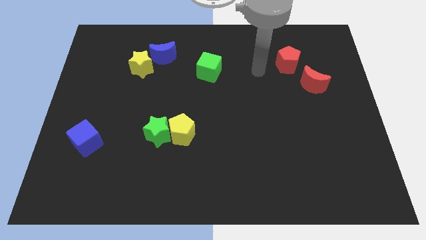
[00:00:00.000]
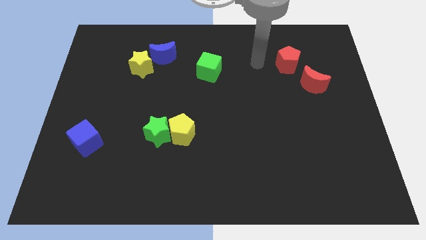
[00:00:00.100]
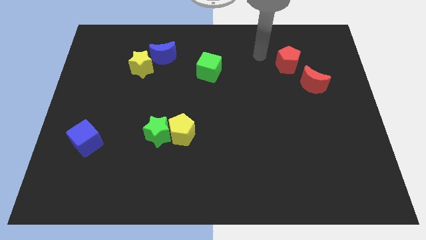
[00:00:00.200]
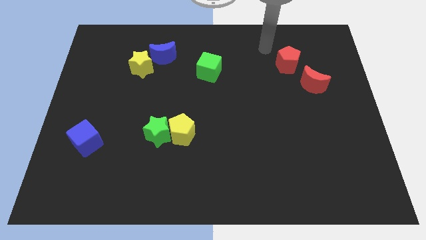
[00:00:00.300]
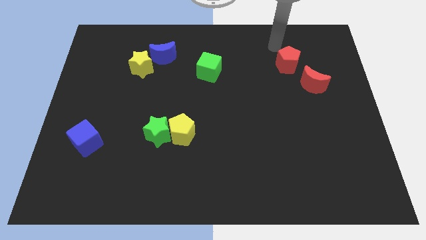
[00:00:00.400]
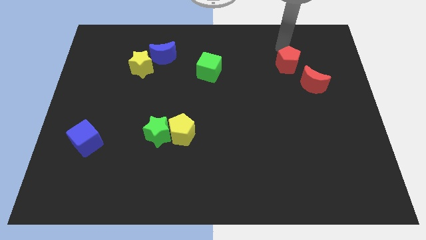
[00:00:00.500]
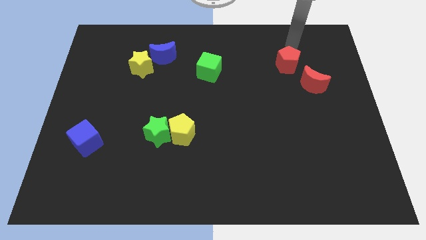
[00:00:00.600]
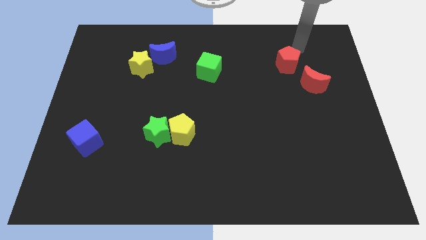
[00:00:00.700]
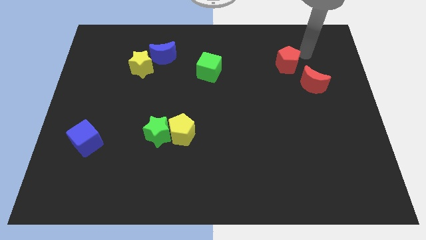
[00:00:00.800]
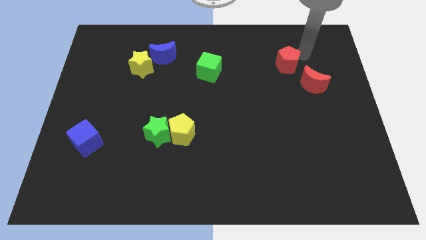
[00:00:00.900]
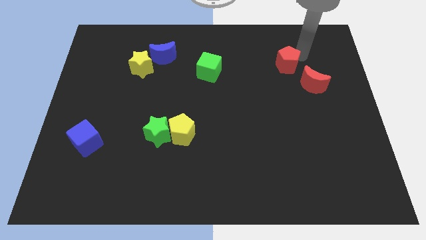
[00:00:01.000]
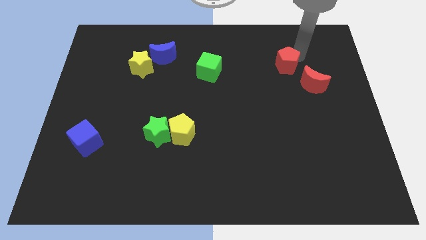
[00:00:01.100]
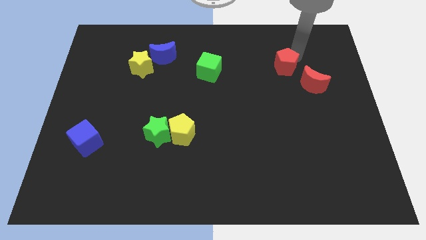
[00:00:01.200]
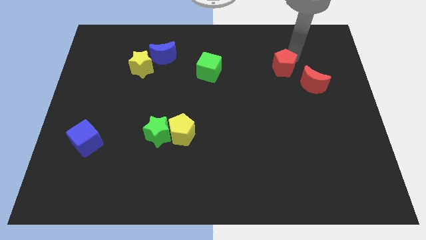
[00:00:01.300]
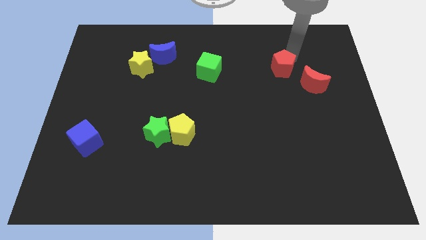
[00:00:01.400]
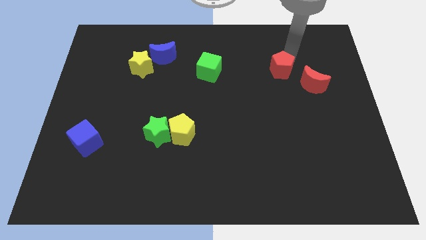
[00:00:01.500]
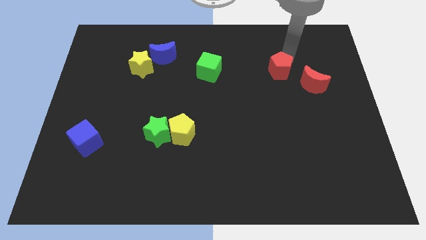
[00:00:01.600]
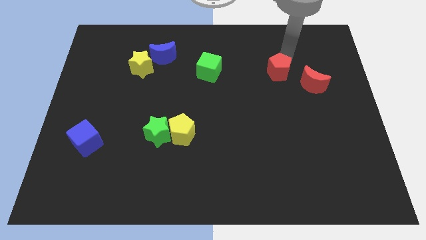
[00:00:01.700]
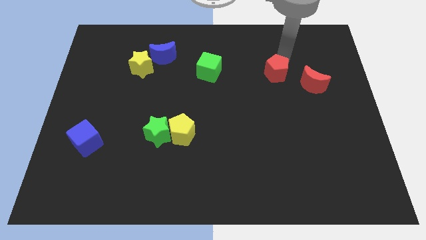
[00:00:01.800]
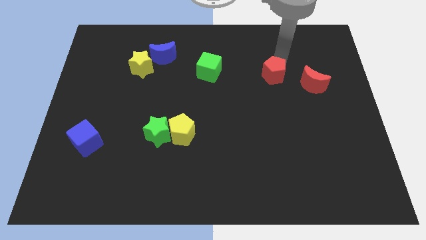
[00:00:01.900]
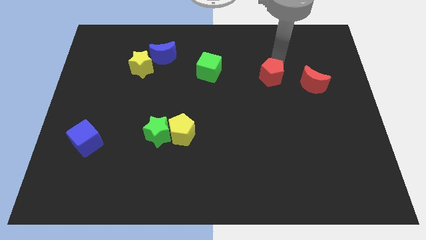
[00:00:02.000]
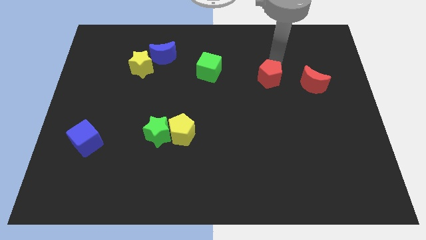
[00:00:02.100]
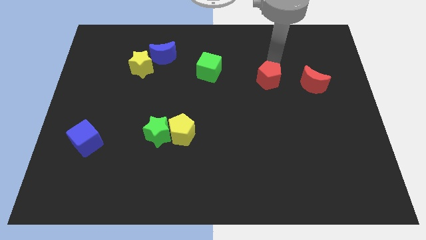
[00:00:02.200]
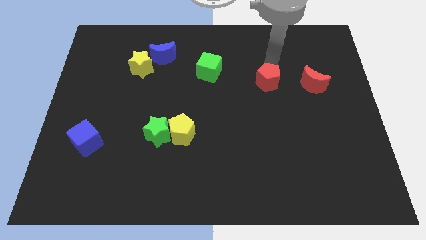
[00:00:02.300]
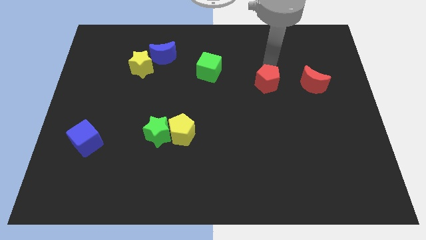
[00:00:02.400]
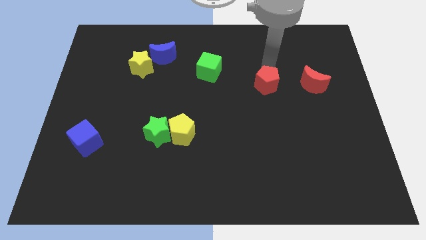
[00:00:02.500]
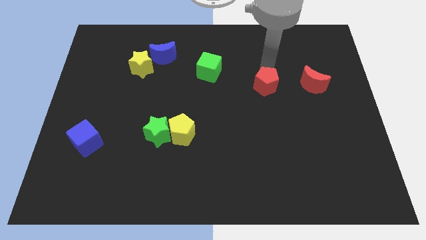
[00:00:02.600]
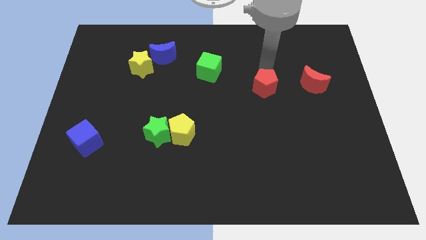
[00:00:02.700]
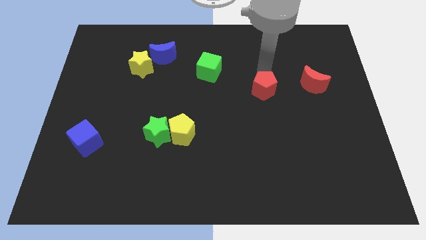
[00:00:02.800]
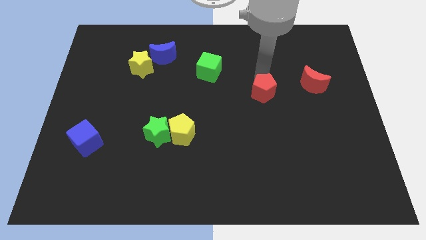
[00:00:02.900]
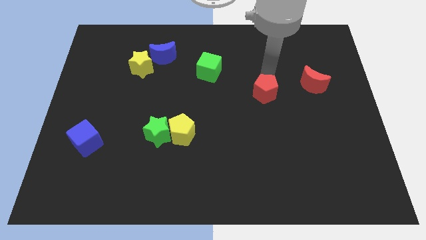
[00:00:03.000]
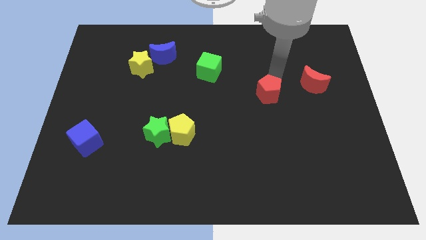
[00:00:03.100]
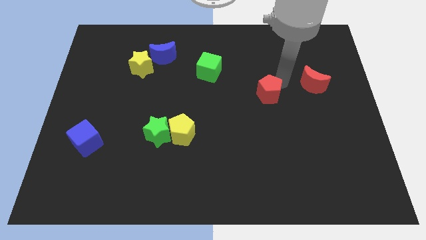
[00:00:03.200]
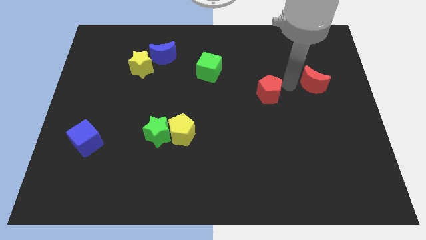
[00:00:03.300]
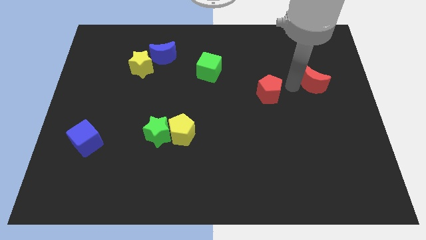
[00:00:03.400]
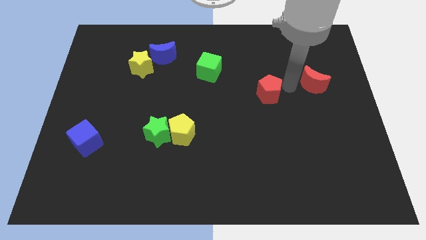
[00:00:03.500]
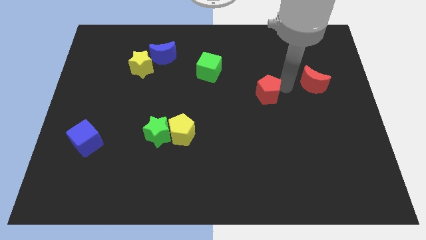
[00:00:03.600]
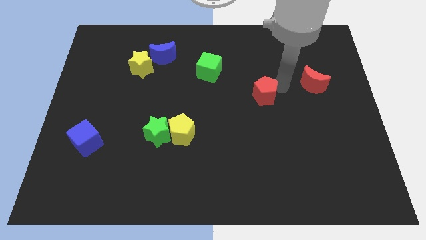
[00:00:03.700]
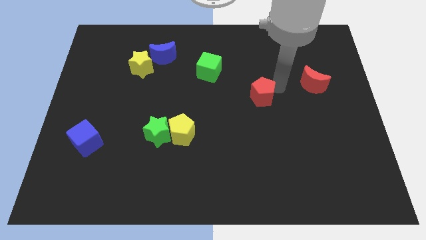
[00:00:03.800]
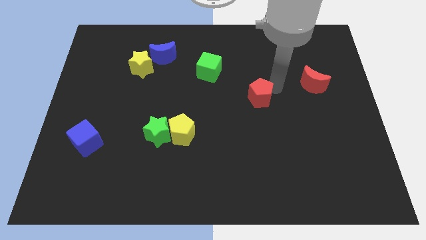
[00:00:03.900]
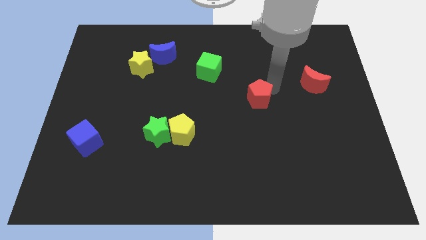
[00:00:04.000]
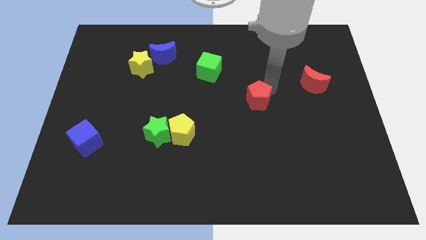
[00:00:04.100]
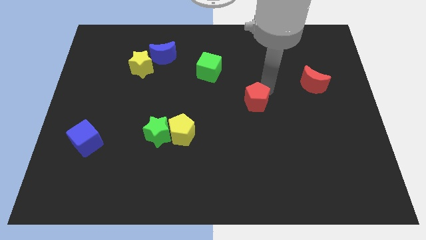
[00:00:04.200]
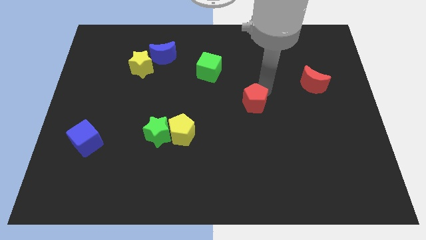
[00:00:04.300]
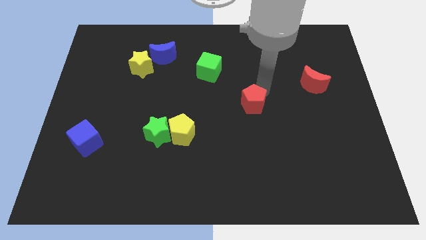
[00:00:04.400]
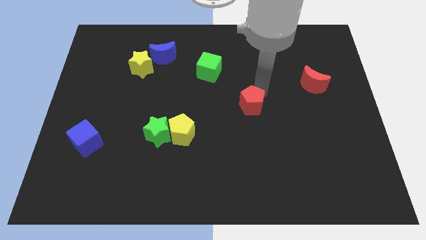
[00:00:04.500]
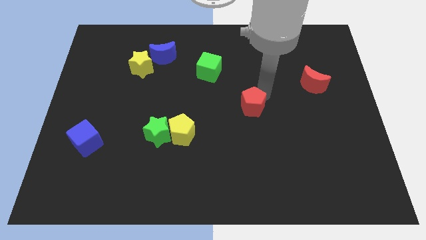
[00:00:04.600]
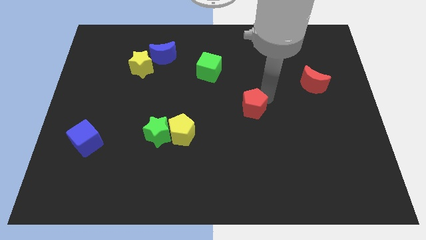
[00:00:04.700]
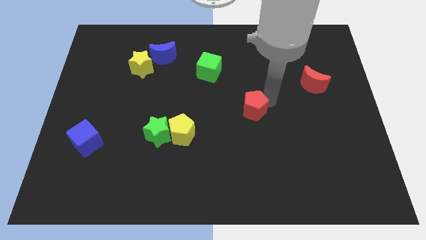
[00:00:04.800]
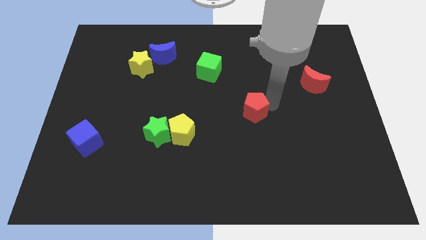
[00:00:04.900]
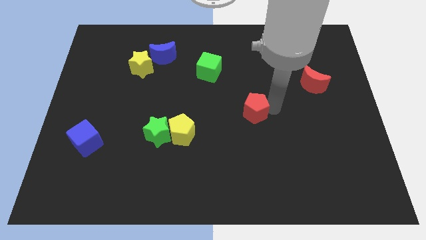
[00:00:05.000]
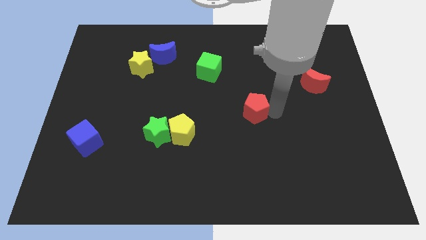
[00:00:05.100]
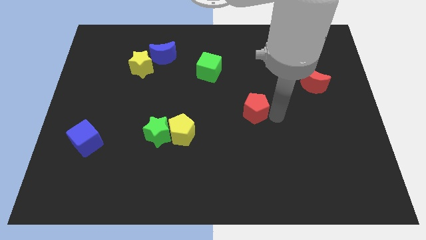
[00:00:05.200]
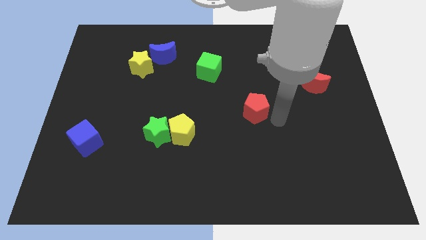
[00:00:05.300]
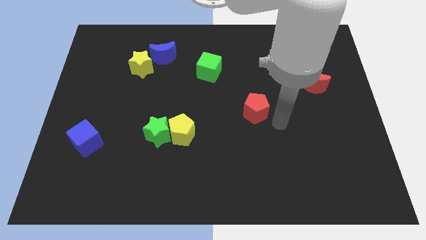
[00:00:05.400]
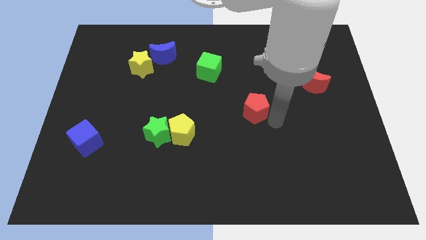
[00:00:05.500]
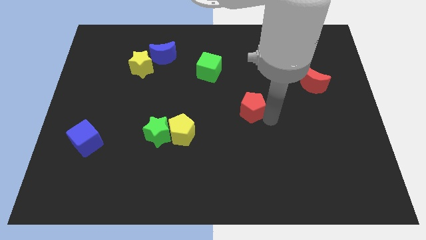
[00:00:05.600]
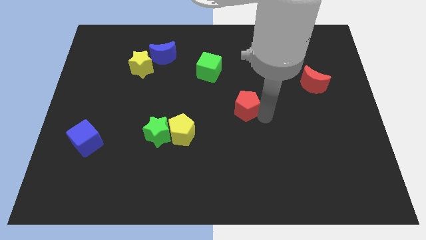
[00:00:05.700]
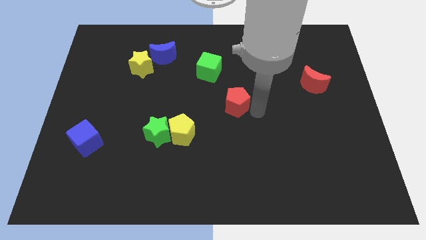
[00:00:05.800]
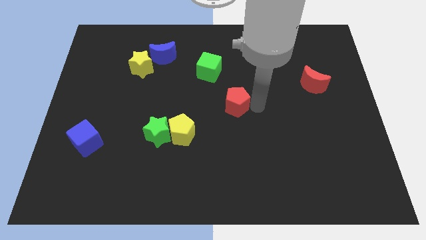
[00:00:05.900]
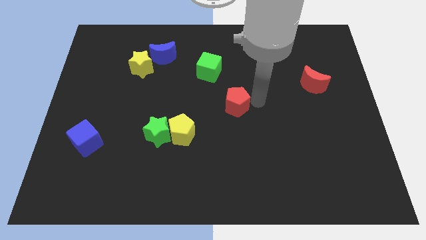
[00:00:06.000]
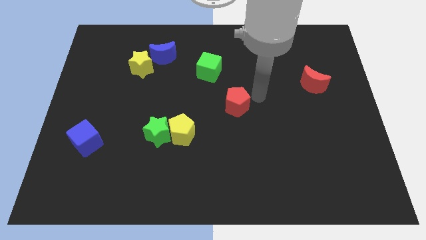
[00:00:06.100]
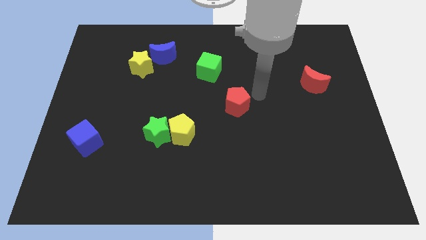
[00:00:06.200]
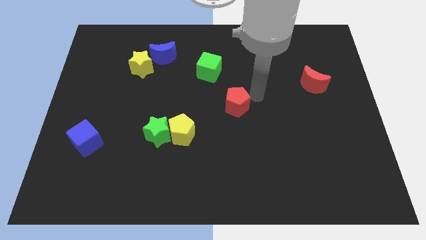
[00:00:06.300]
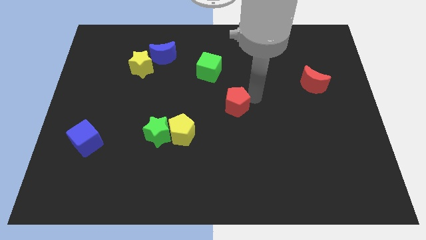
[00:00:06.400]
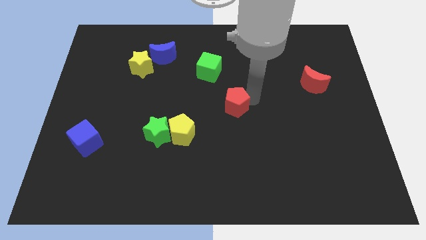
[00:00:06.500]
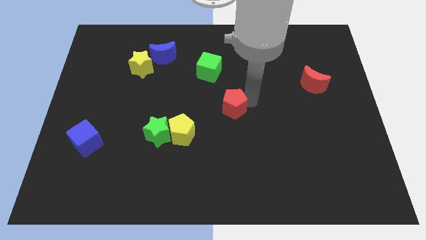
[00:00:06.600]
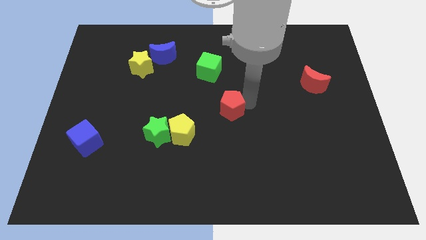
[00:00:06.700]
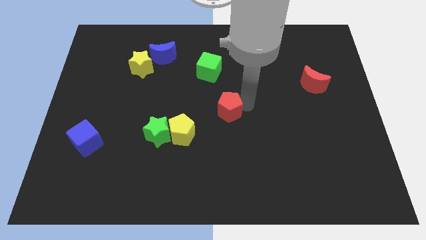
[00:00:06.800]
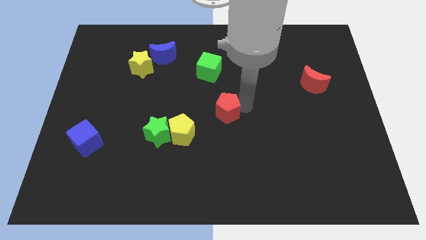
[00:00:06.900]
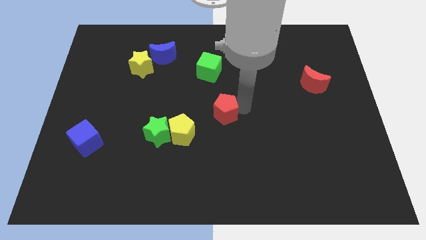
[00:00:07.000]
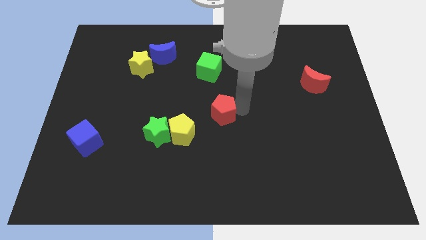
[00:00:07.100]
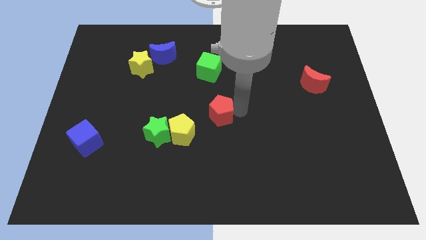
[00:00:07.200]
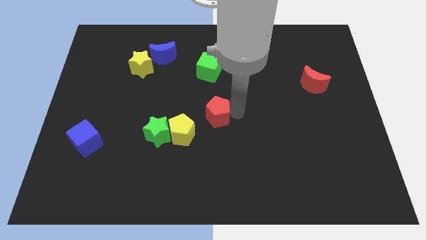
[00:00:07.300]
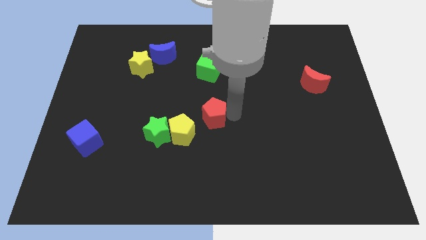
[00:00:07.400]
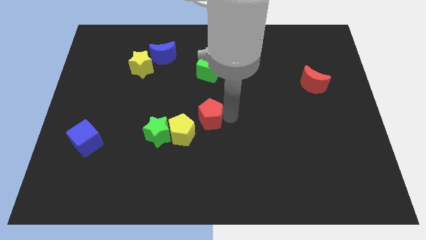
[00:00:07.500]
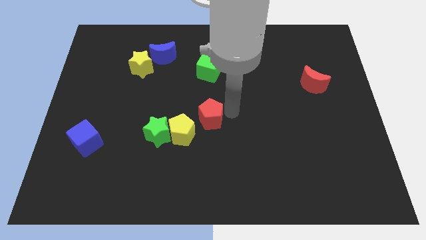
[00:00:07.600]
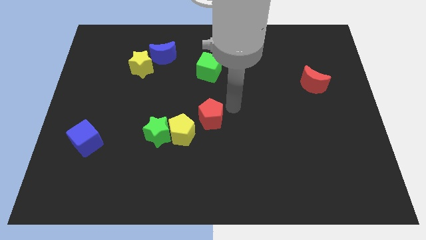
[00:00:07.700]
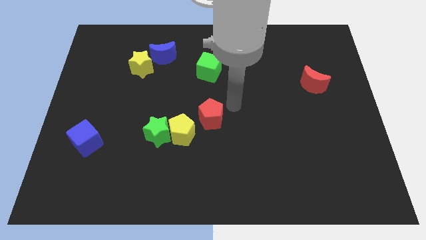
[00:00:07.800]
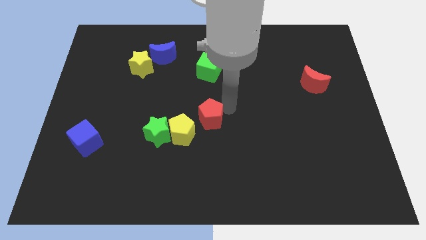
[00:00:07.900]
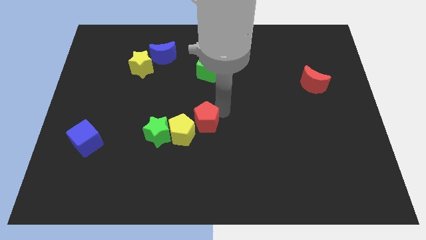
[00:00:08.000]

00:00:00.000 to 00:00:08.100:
move the red pentagon to the yellow pentagon
